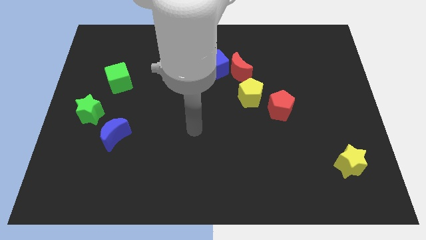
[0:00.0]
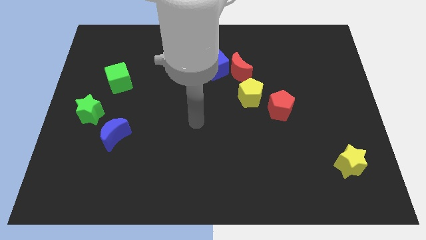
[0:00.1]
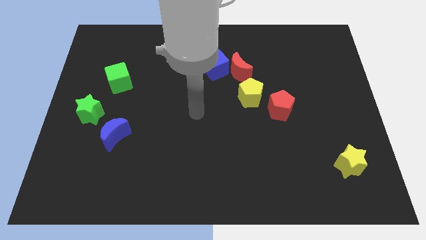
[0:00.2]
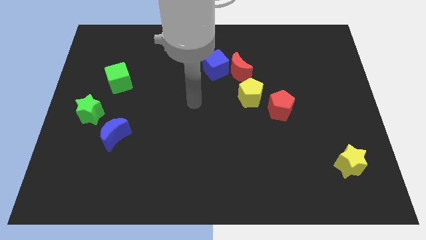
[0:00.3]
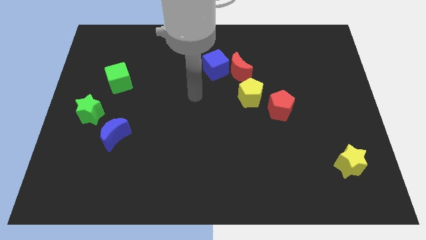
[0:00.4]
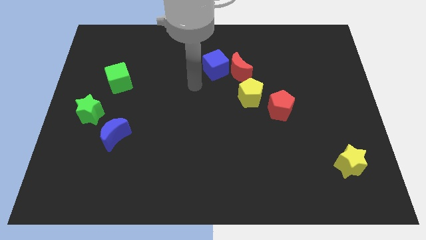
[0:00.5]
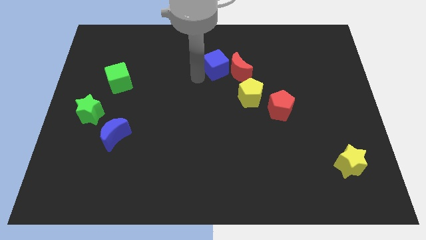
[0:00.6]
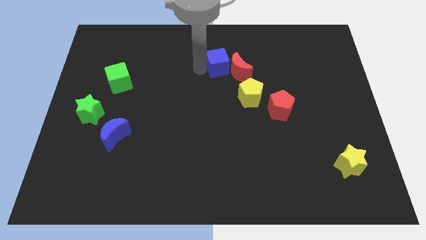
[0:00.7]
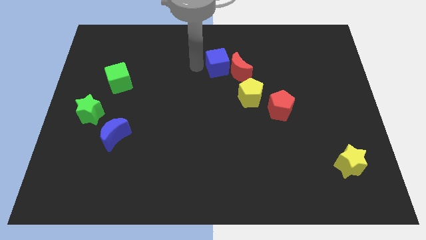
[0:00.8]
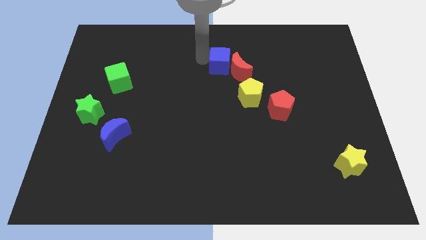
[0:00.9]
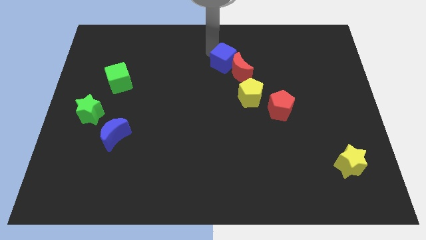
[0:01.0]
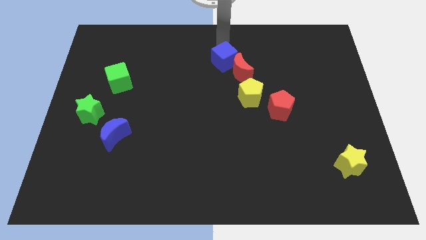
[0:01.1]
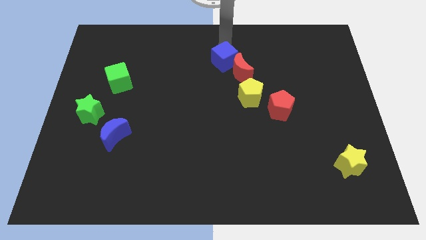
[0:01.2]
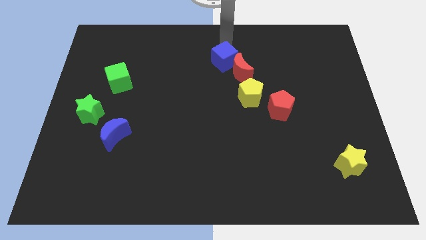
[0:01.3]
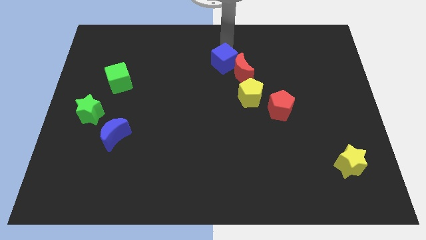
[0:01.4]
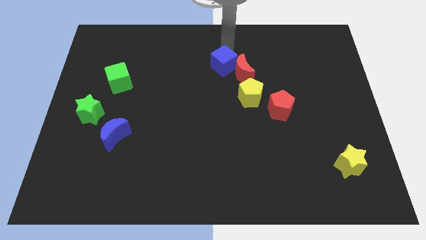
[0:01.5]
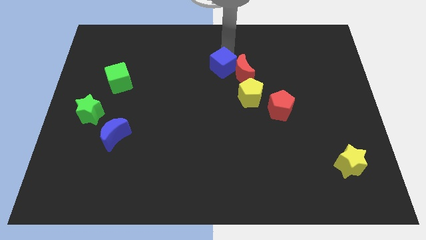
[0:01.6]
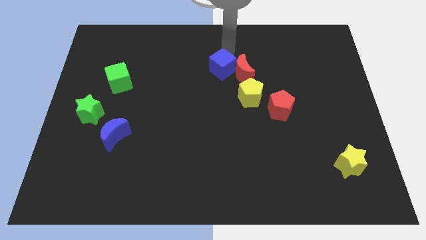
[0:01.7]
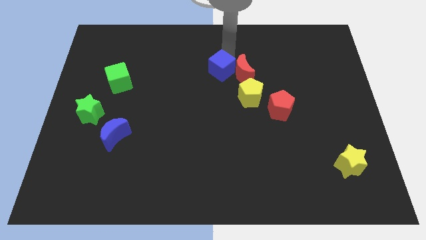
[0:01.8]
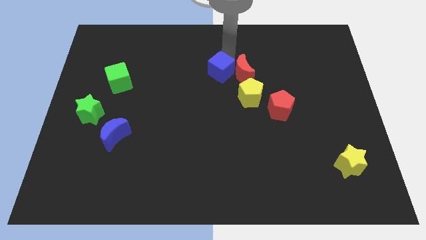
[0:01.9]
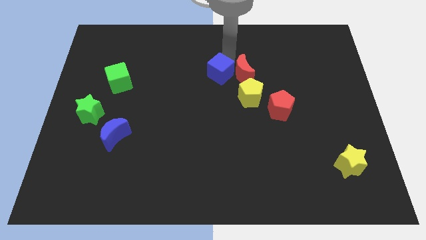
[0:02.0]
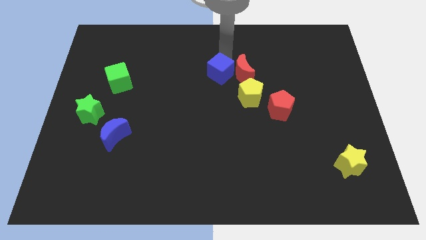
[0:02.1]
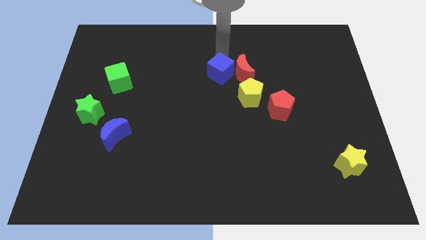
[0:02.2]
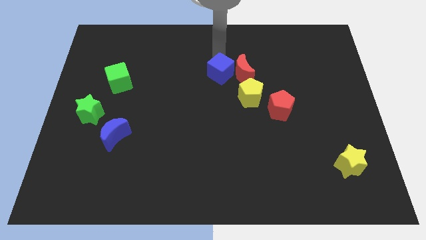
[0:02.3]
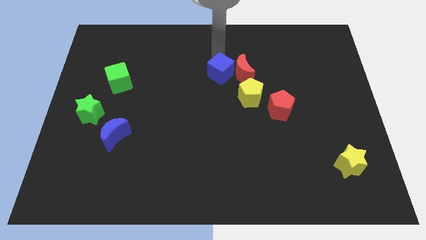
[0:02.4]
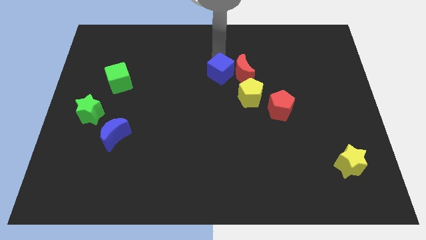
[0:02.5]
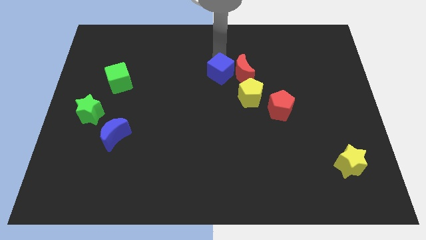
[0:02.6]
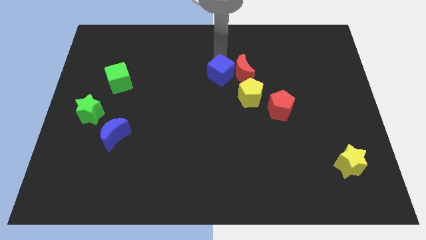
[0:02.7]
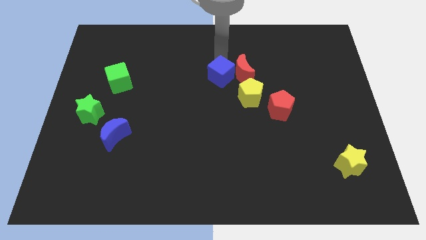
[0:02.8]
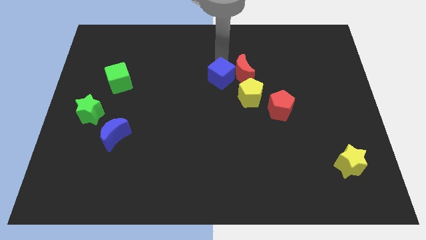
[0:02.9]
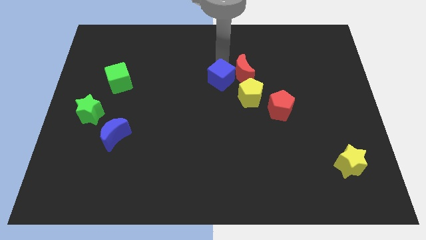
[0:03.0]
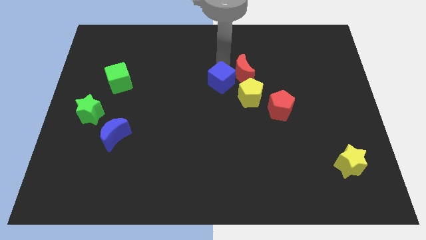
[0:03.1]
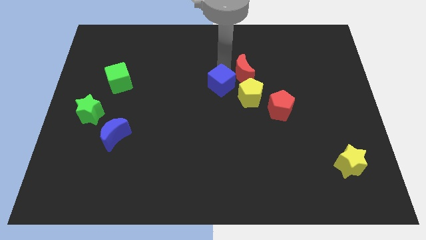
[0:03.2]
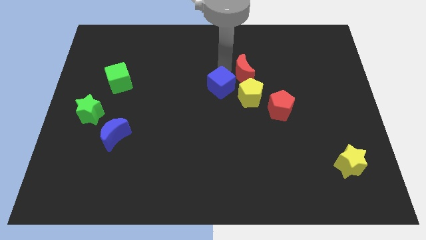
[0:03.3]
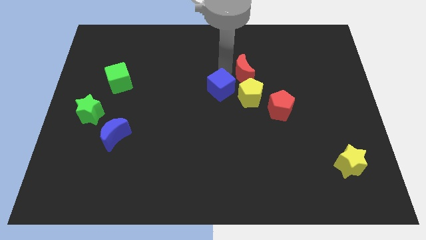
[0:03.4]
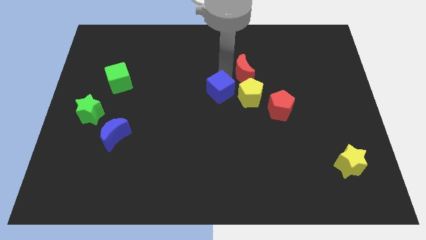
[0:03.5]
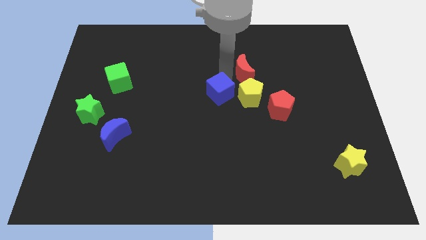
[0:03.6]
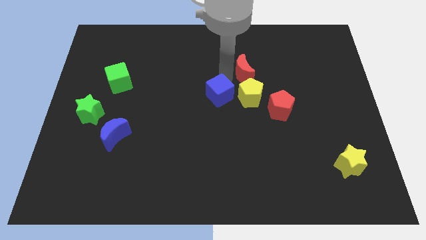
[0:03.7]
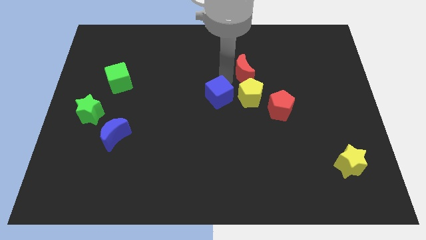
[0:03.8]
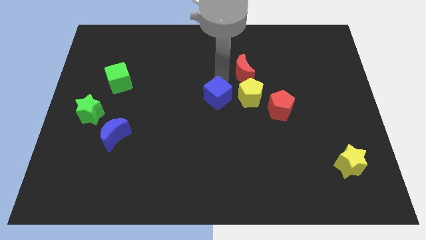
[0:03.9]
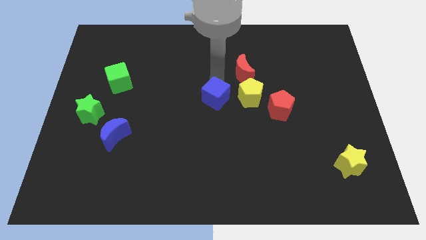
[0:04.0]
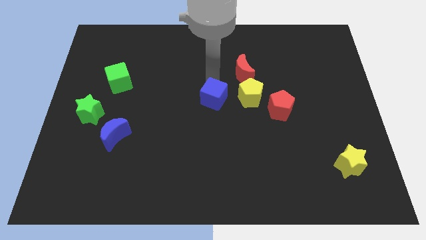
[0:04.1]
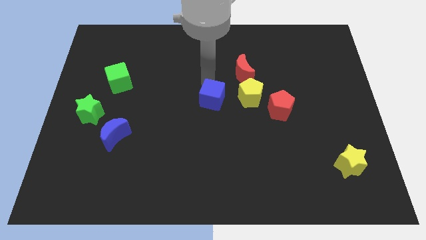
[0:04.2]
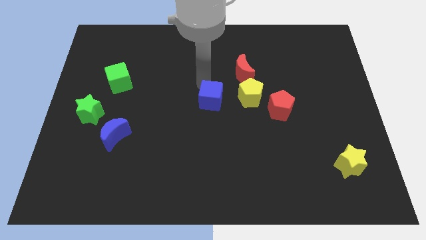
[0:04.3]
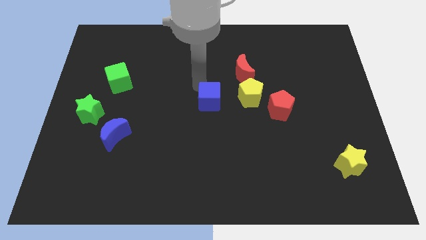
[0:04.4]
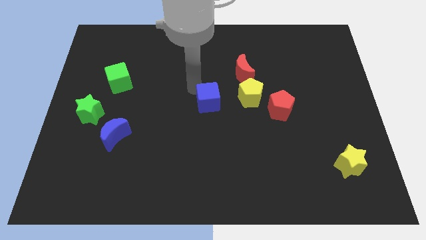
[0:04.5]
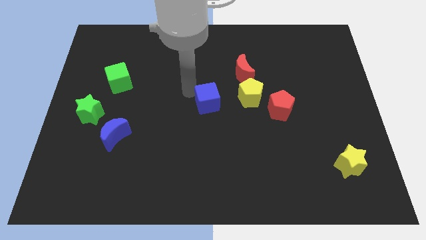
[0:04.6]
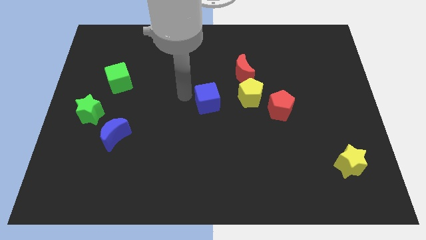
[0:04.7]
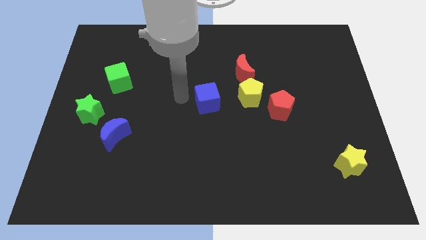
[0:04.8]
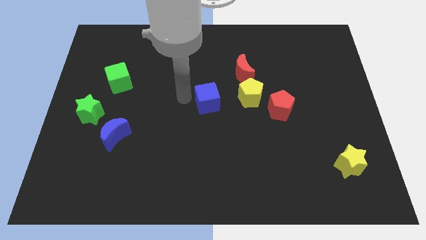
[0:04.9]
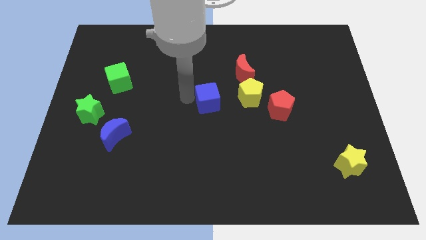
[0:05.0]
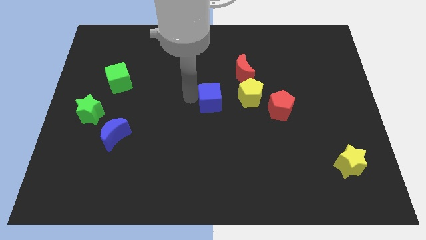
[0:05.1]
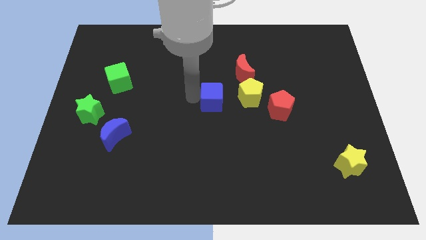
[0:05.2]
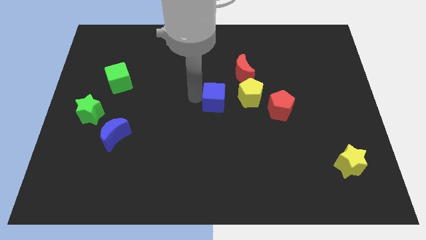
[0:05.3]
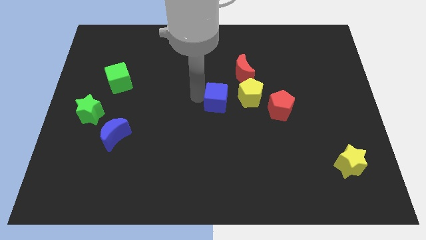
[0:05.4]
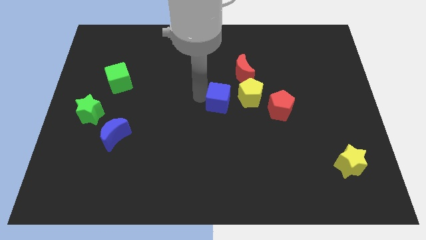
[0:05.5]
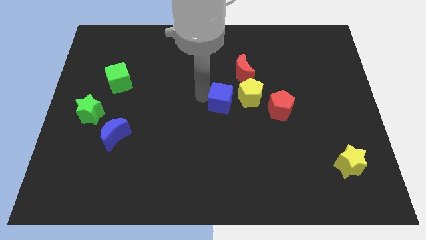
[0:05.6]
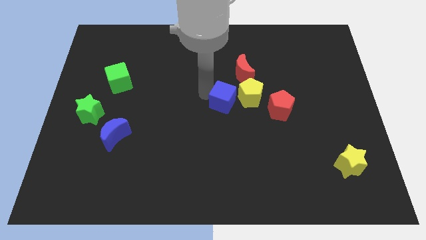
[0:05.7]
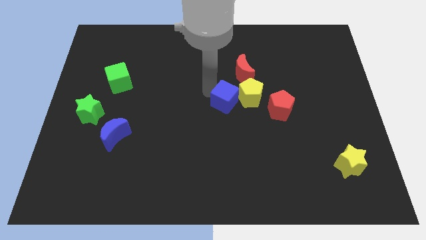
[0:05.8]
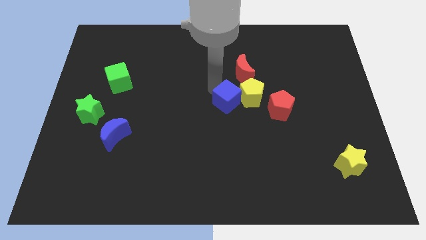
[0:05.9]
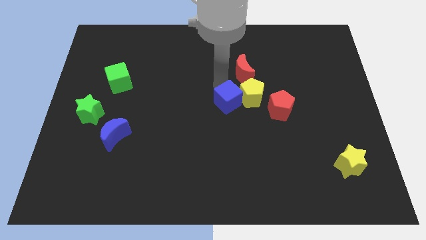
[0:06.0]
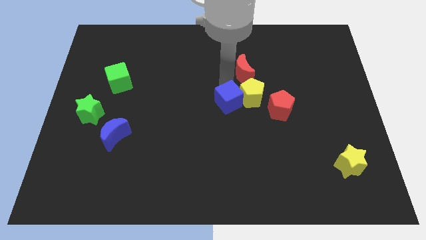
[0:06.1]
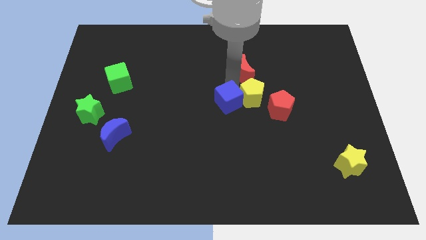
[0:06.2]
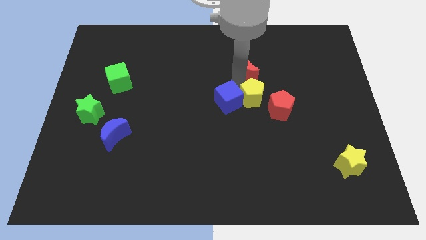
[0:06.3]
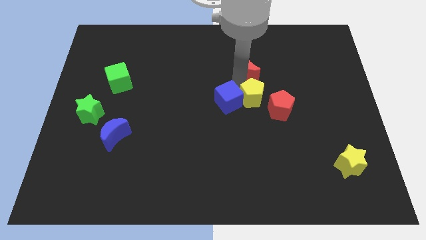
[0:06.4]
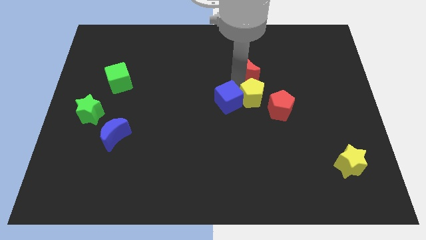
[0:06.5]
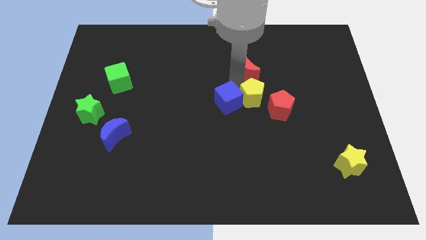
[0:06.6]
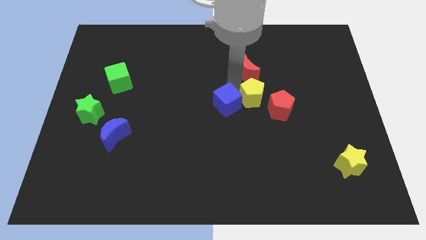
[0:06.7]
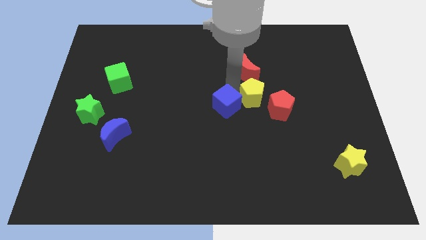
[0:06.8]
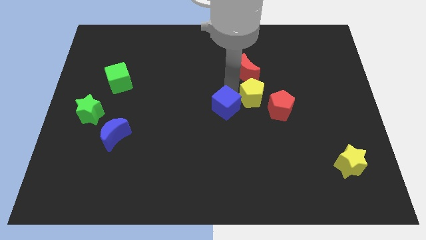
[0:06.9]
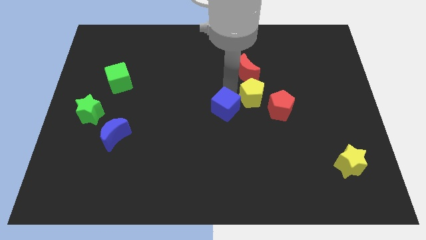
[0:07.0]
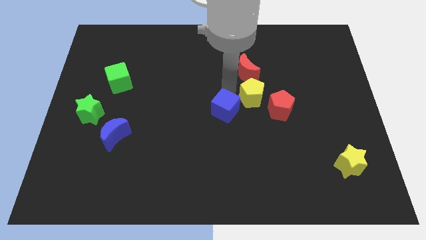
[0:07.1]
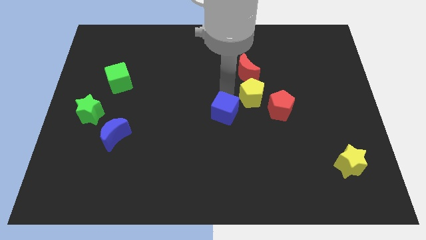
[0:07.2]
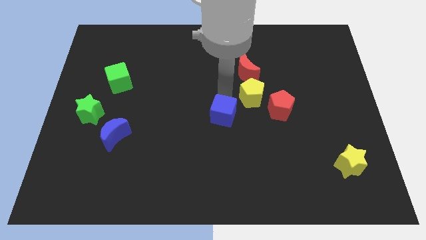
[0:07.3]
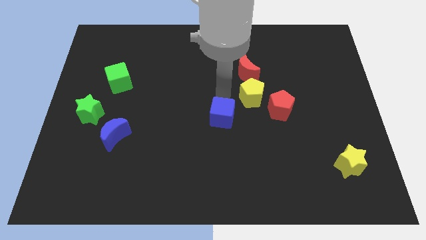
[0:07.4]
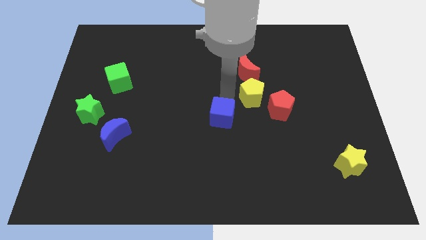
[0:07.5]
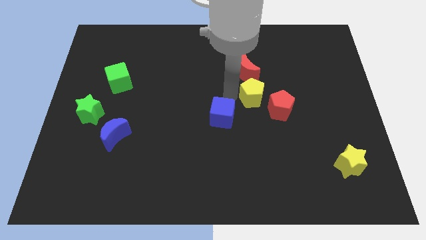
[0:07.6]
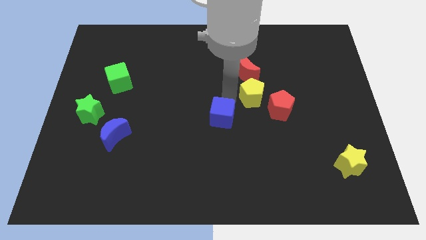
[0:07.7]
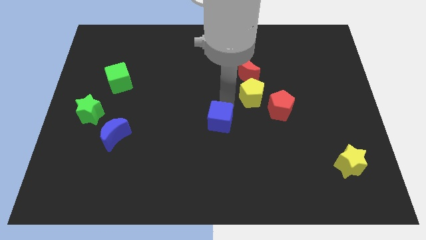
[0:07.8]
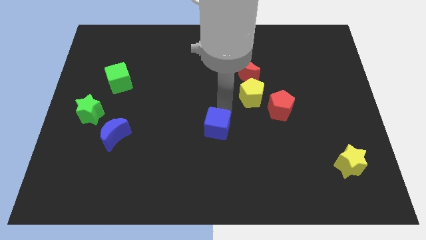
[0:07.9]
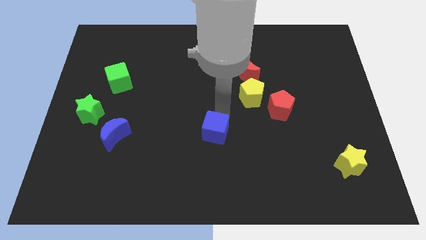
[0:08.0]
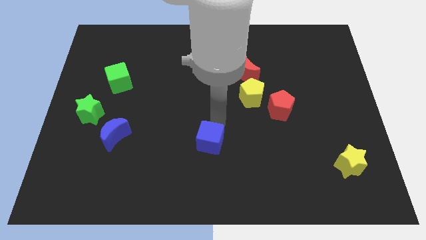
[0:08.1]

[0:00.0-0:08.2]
push the blue cube downwards

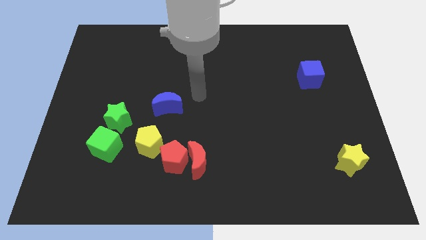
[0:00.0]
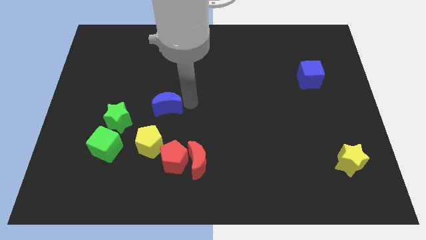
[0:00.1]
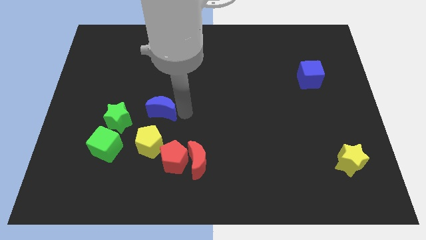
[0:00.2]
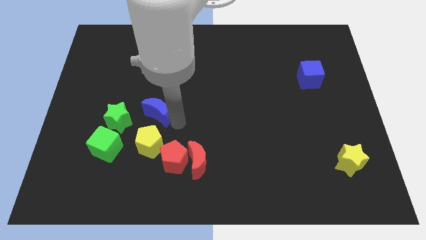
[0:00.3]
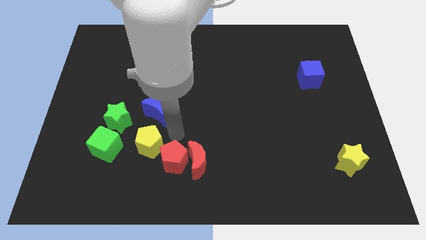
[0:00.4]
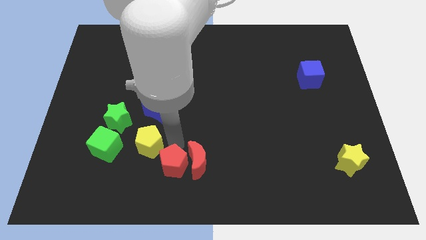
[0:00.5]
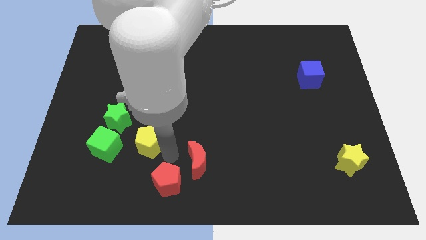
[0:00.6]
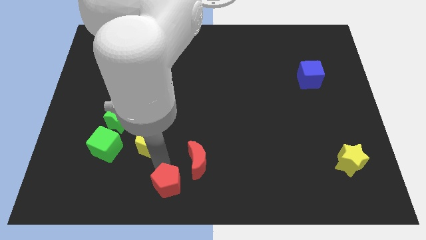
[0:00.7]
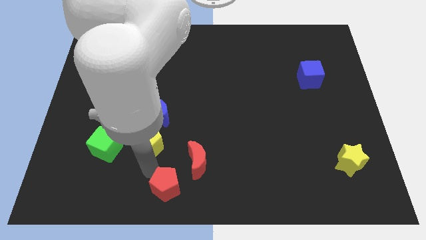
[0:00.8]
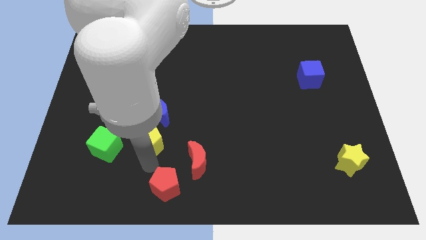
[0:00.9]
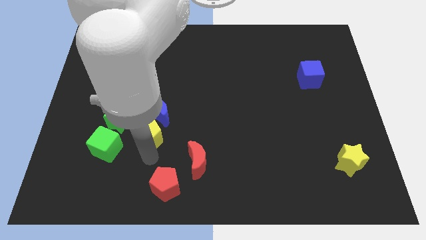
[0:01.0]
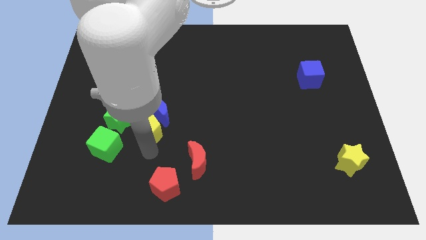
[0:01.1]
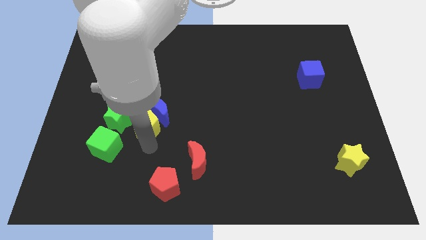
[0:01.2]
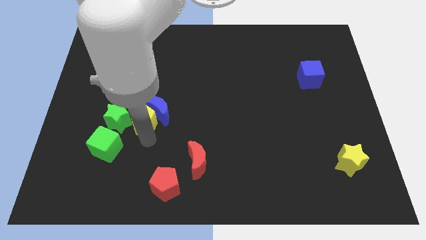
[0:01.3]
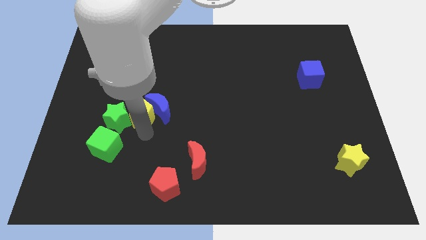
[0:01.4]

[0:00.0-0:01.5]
move the yellow pentagon upwards a little
